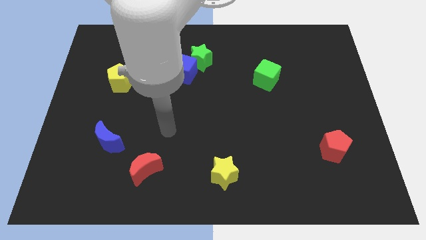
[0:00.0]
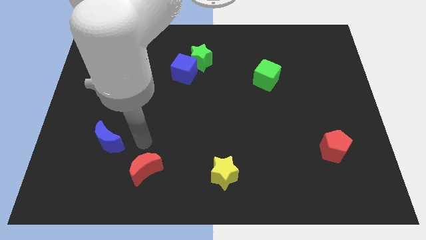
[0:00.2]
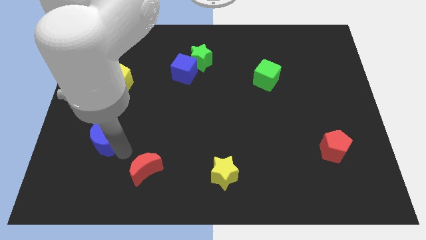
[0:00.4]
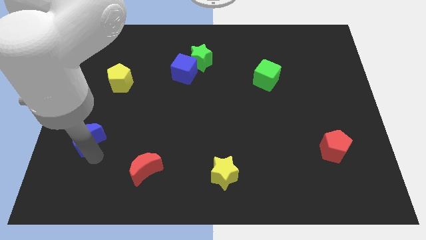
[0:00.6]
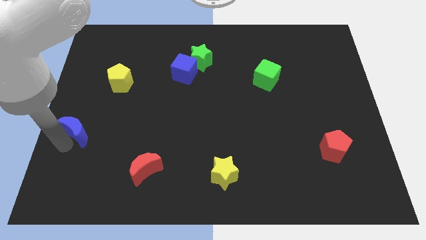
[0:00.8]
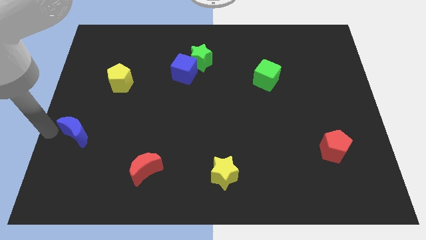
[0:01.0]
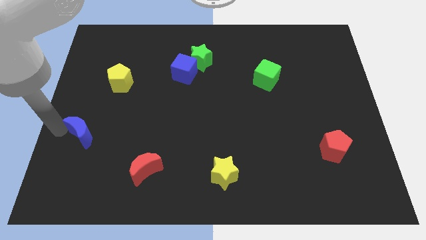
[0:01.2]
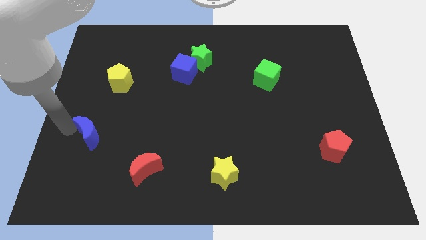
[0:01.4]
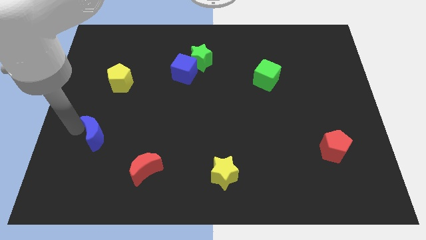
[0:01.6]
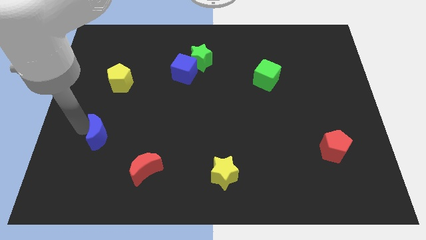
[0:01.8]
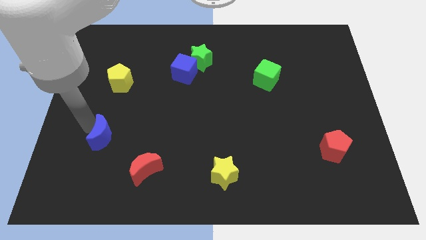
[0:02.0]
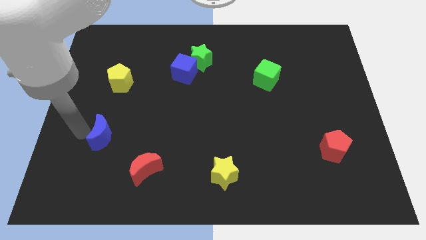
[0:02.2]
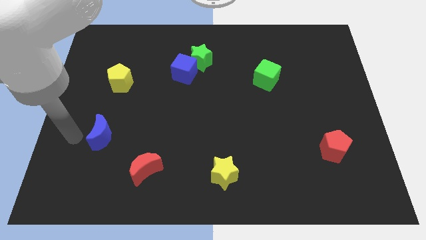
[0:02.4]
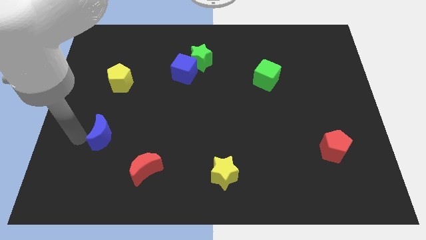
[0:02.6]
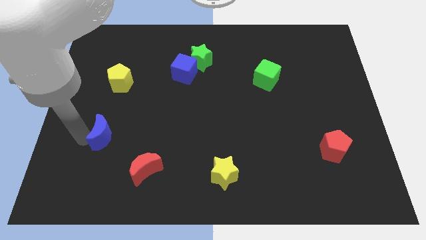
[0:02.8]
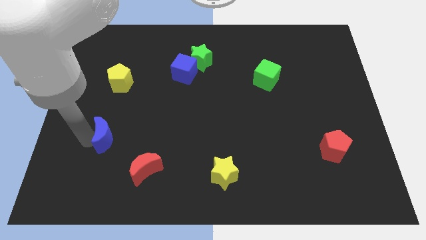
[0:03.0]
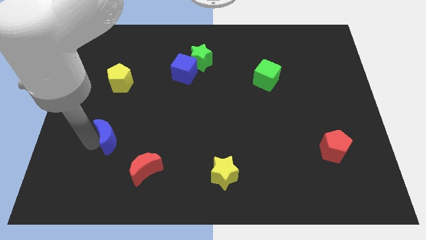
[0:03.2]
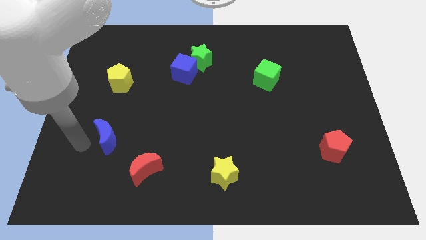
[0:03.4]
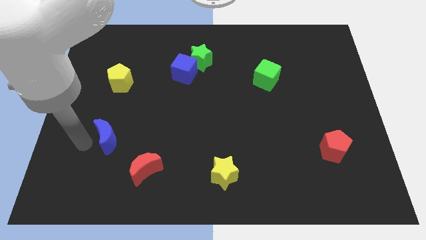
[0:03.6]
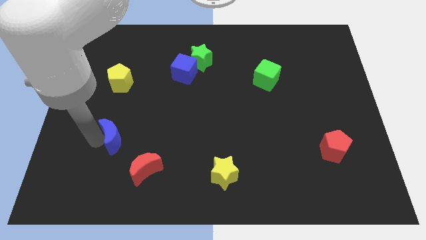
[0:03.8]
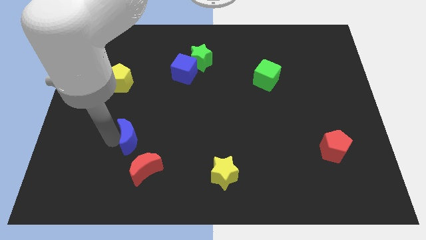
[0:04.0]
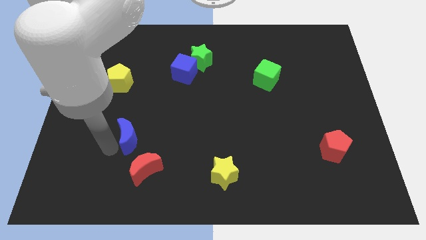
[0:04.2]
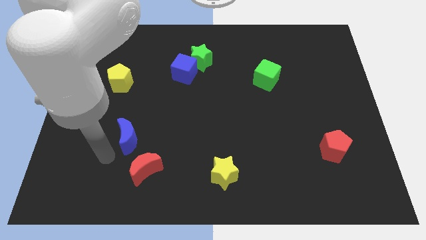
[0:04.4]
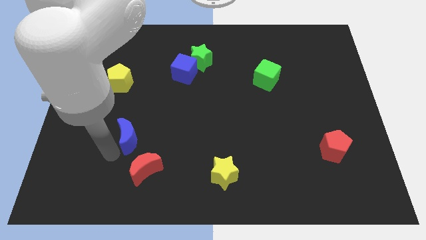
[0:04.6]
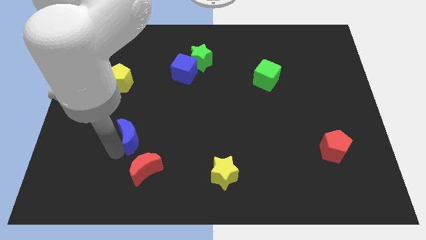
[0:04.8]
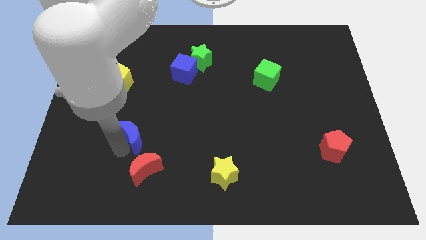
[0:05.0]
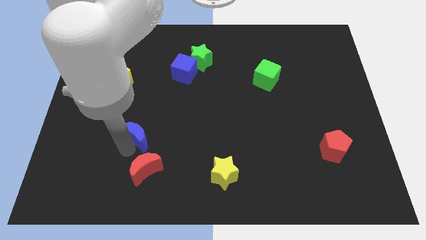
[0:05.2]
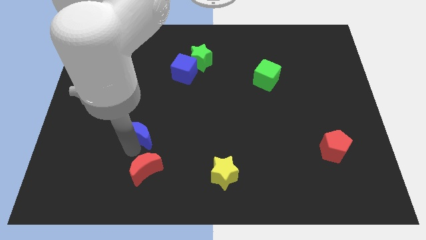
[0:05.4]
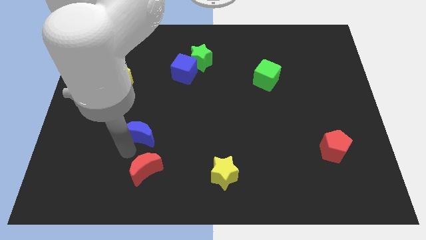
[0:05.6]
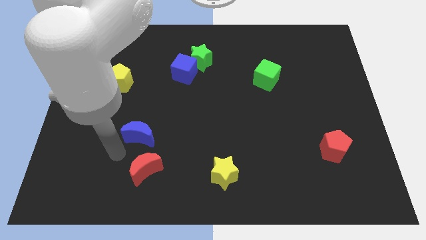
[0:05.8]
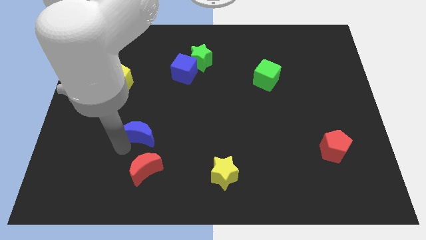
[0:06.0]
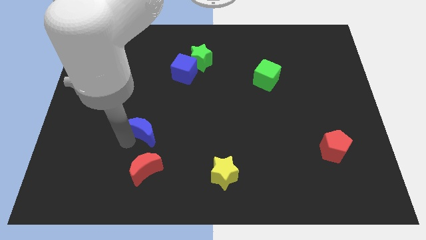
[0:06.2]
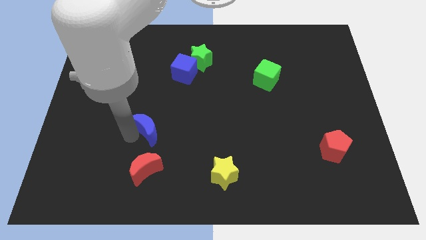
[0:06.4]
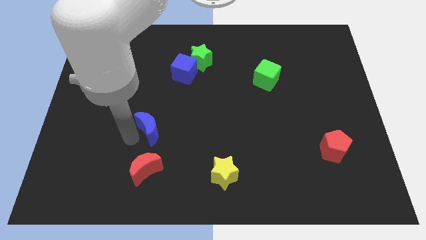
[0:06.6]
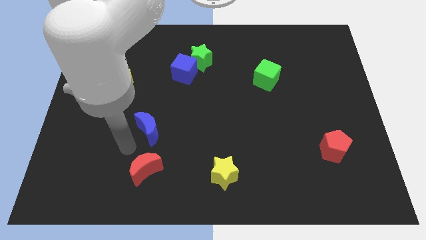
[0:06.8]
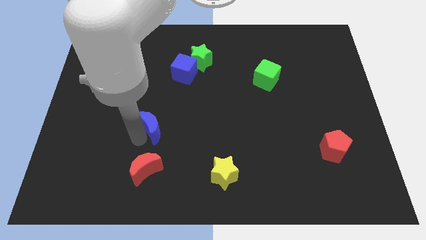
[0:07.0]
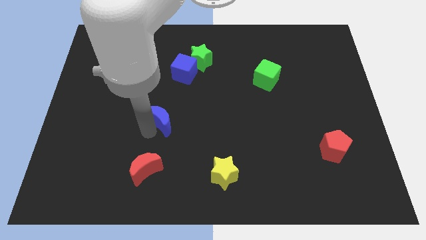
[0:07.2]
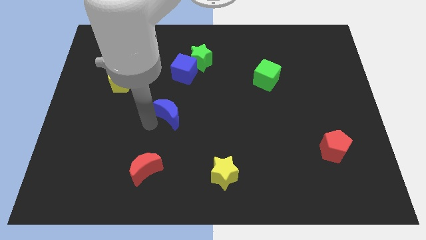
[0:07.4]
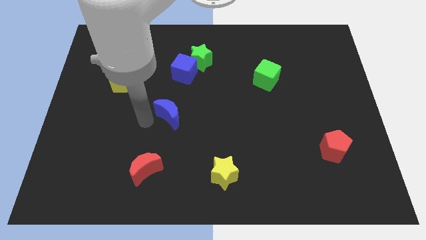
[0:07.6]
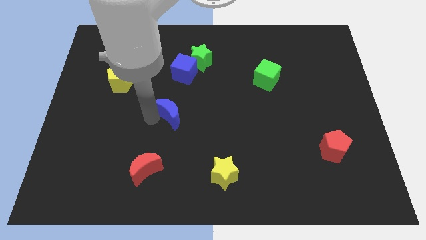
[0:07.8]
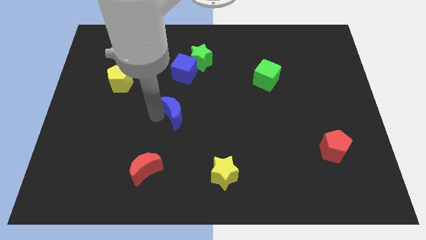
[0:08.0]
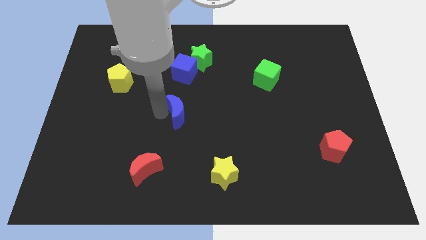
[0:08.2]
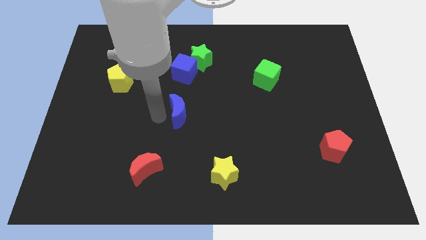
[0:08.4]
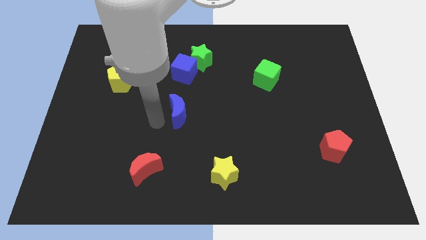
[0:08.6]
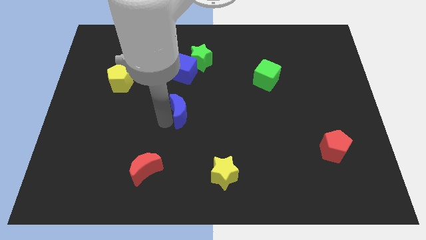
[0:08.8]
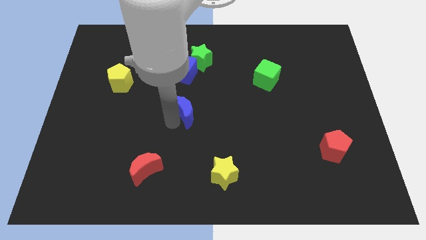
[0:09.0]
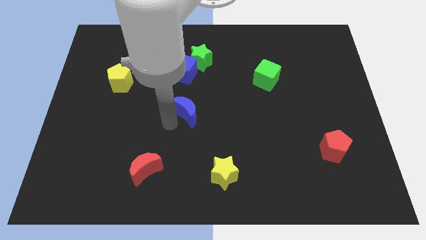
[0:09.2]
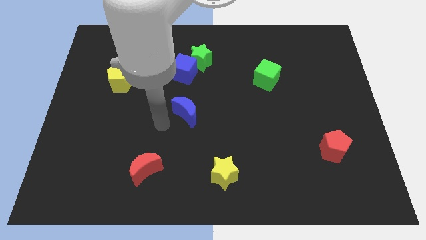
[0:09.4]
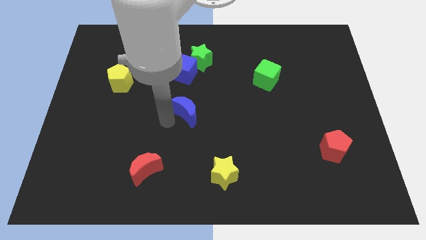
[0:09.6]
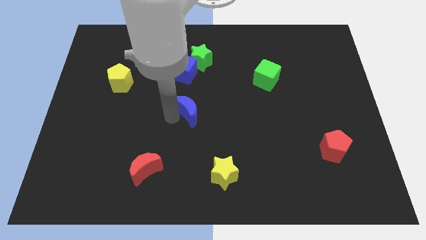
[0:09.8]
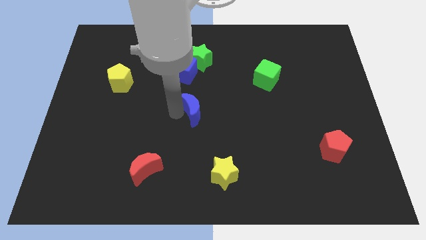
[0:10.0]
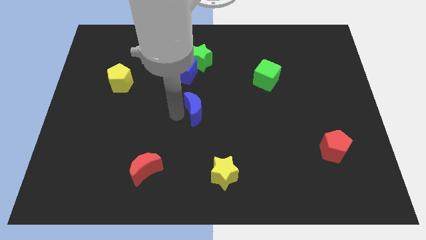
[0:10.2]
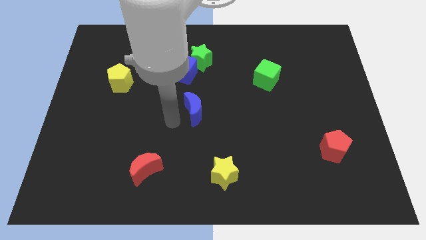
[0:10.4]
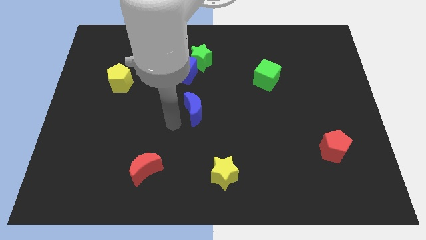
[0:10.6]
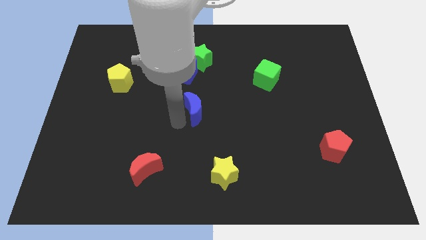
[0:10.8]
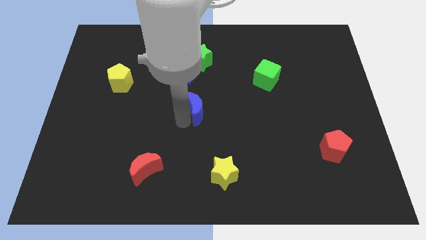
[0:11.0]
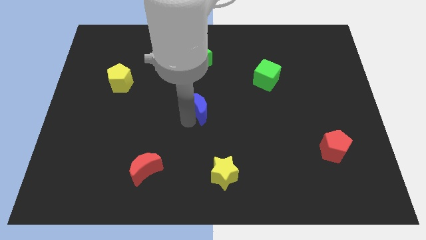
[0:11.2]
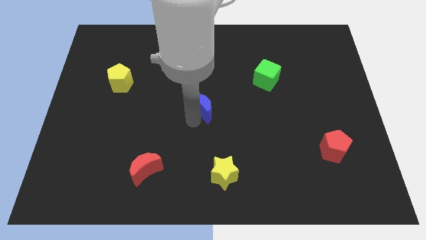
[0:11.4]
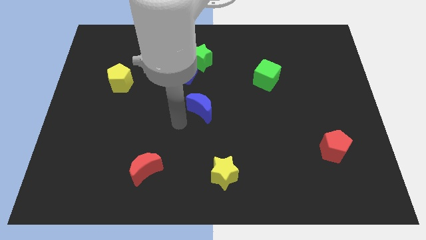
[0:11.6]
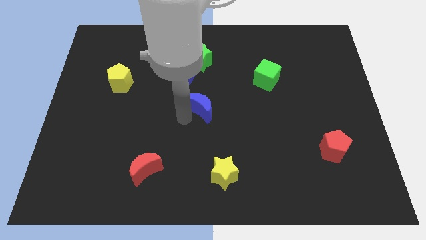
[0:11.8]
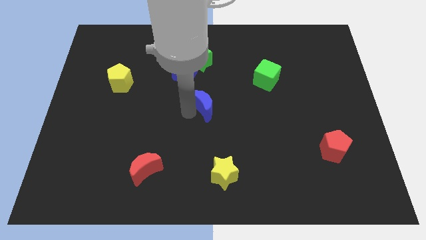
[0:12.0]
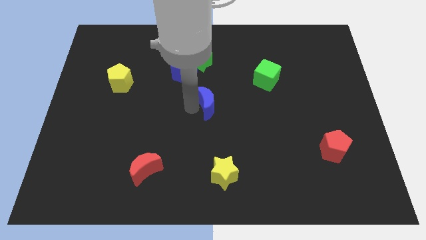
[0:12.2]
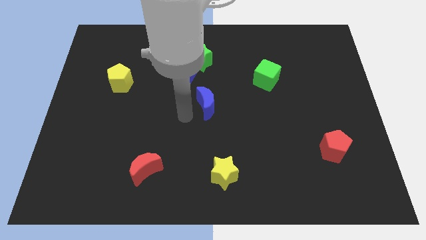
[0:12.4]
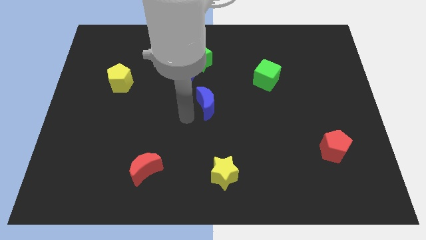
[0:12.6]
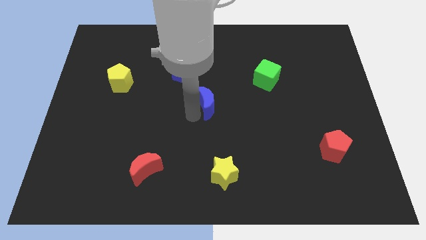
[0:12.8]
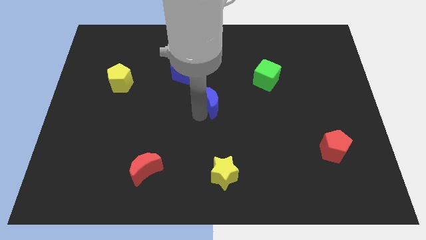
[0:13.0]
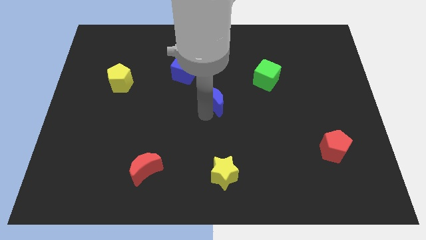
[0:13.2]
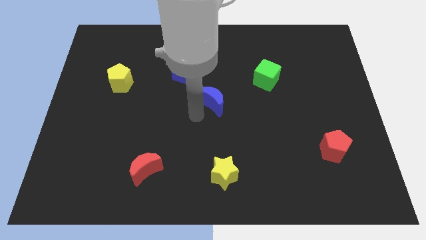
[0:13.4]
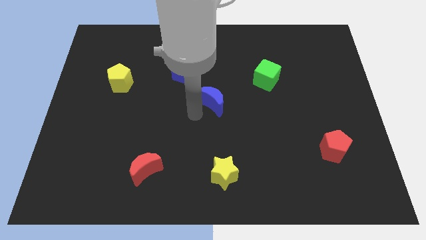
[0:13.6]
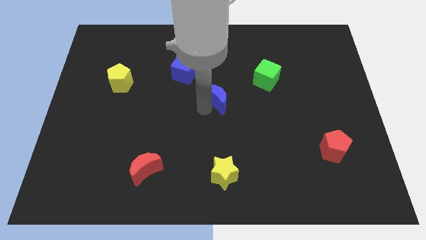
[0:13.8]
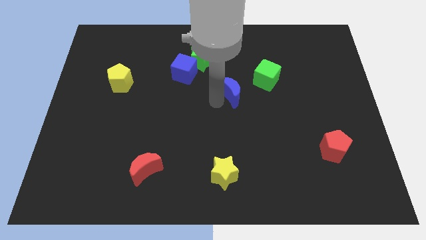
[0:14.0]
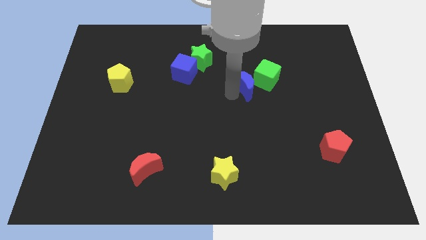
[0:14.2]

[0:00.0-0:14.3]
slide the blue moon to the green cube

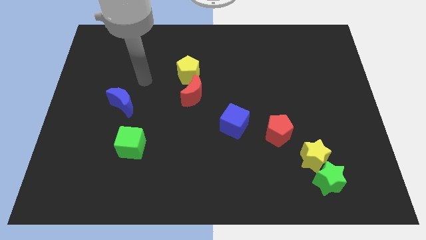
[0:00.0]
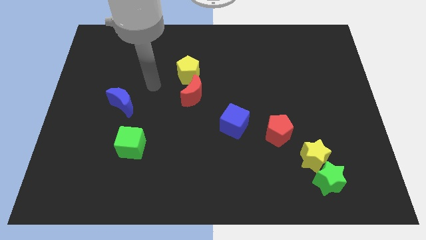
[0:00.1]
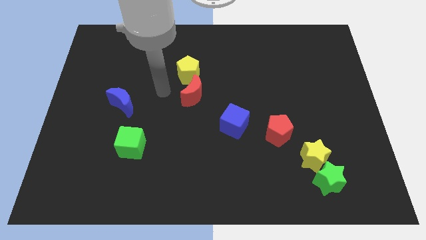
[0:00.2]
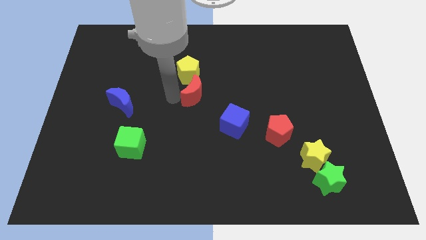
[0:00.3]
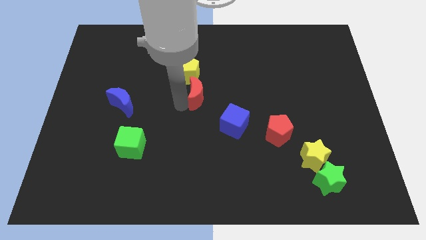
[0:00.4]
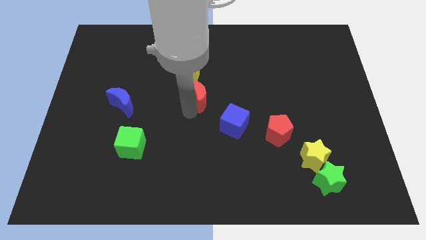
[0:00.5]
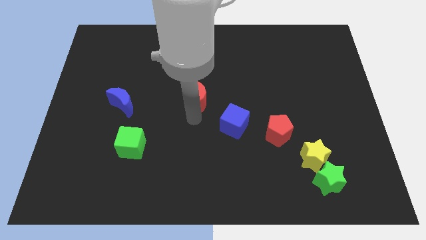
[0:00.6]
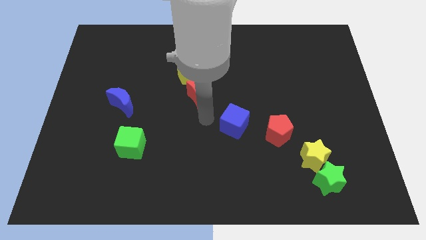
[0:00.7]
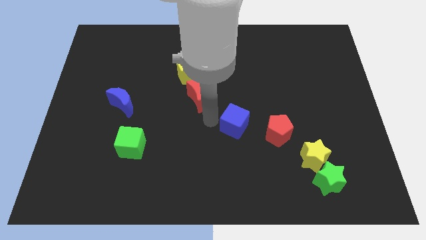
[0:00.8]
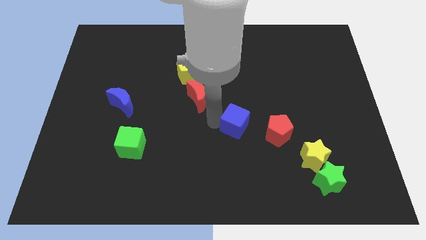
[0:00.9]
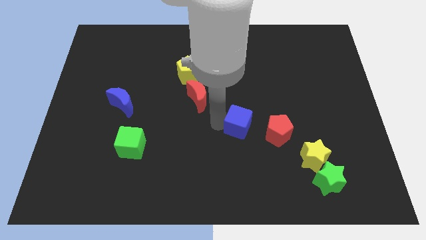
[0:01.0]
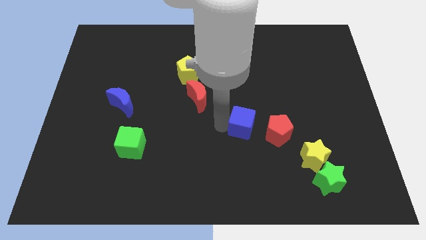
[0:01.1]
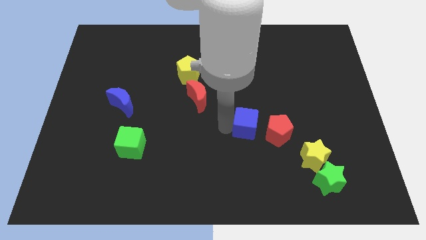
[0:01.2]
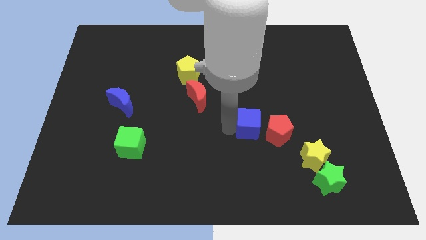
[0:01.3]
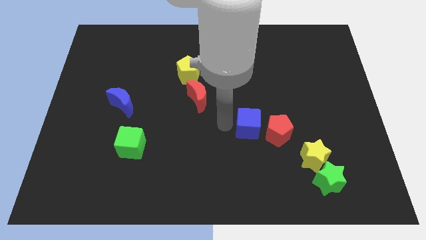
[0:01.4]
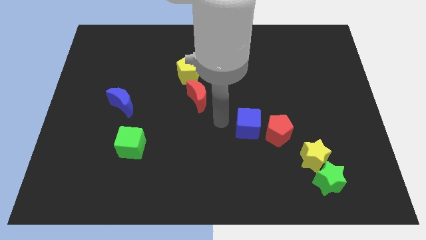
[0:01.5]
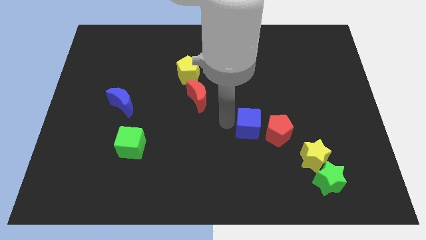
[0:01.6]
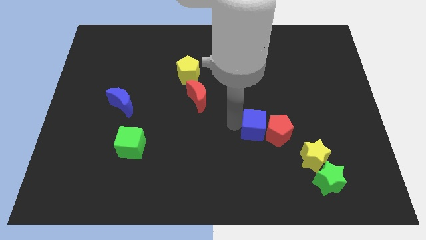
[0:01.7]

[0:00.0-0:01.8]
move the blue cube towards the red pentagon
